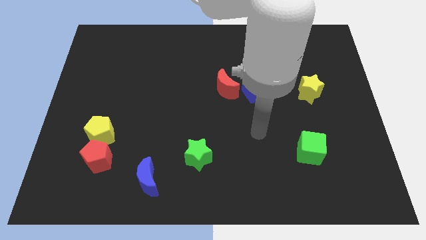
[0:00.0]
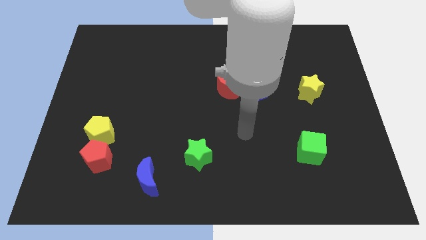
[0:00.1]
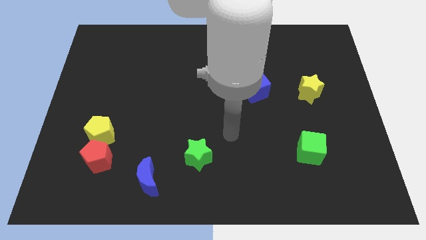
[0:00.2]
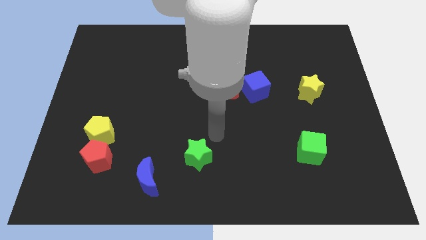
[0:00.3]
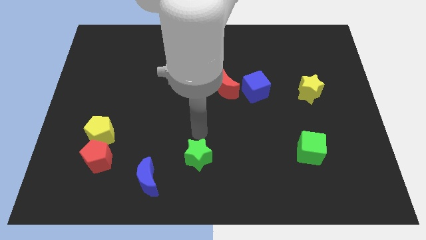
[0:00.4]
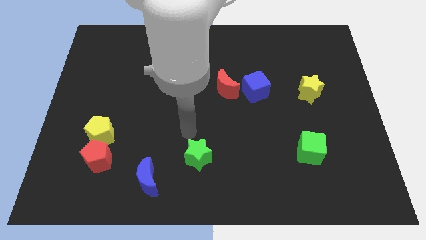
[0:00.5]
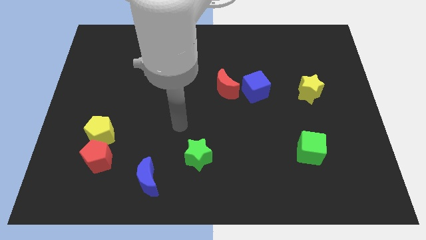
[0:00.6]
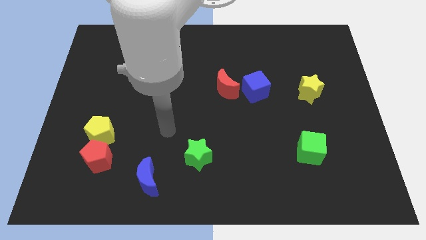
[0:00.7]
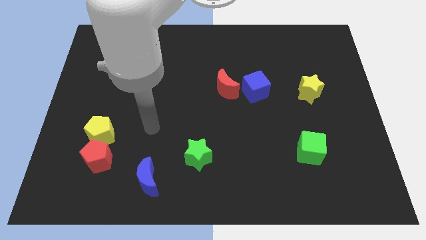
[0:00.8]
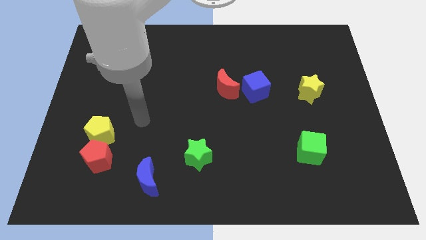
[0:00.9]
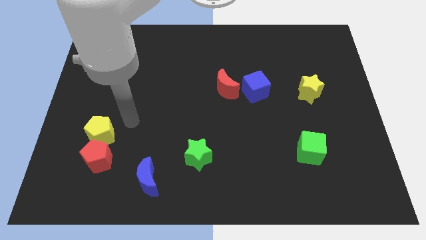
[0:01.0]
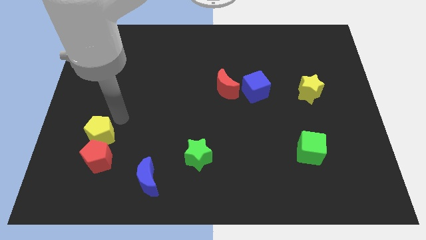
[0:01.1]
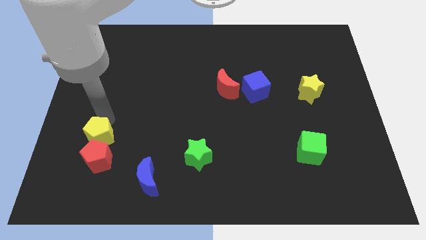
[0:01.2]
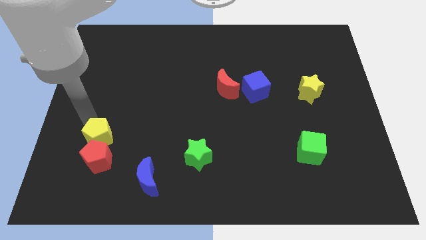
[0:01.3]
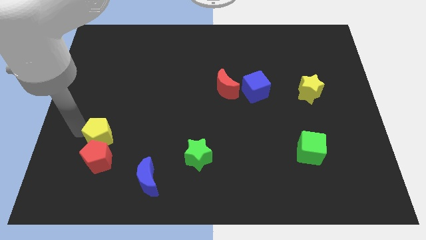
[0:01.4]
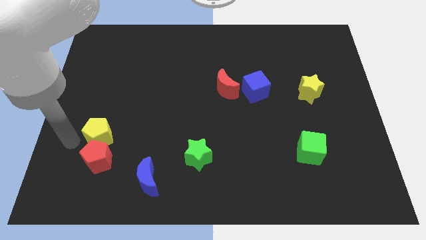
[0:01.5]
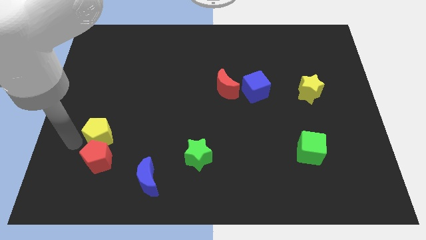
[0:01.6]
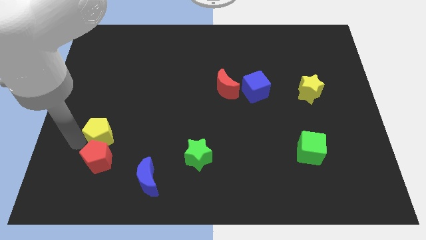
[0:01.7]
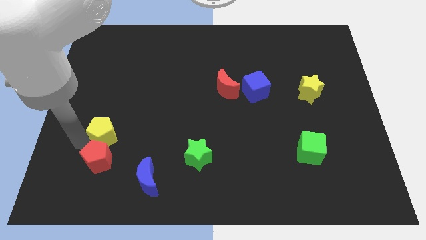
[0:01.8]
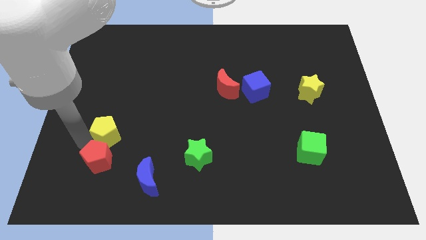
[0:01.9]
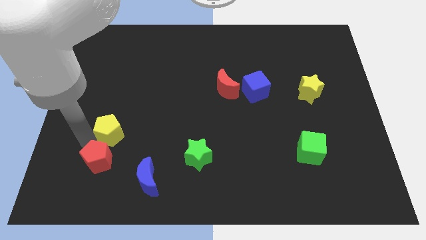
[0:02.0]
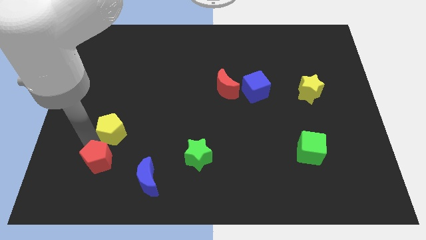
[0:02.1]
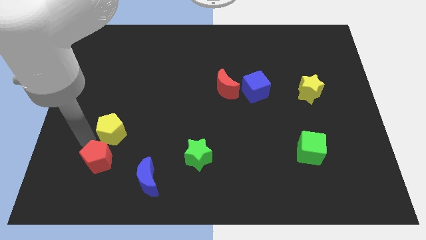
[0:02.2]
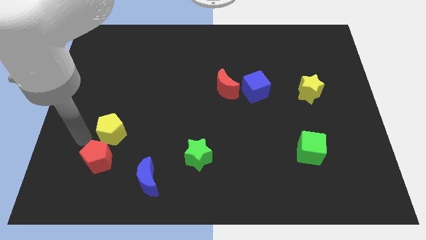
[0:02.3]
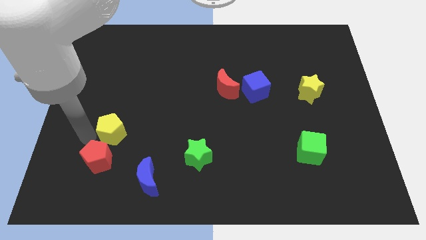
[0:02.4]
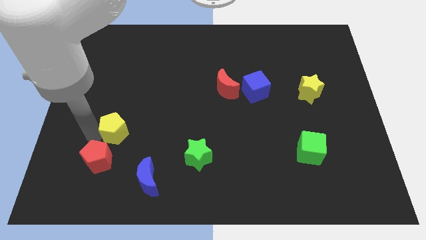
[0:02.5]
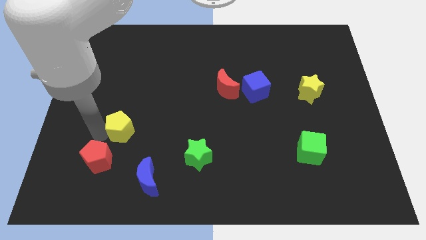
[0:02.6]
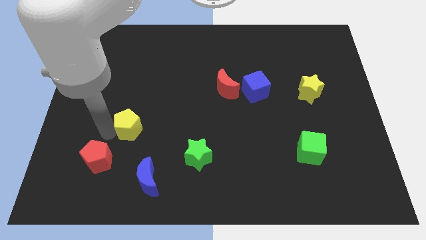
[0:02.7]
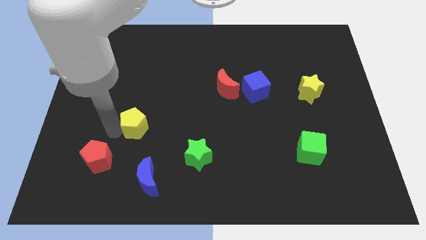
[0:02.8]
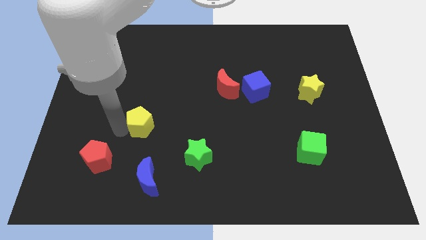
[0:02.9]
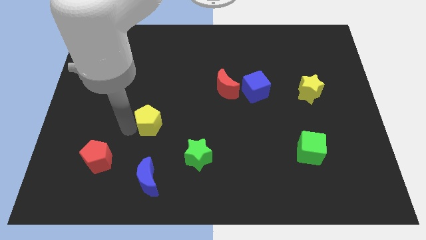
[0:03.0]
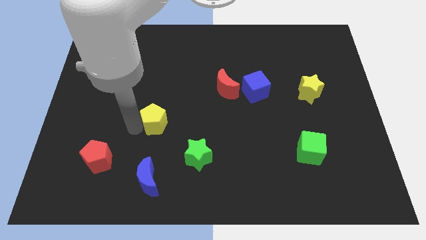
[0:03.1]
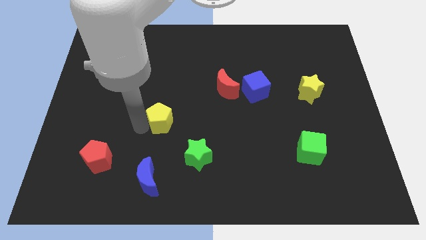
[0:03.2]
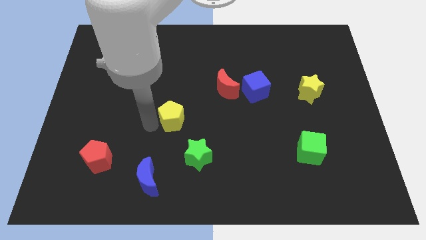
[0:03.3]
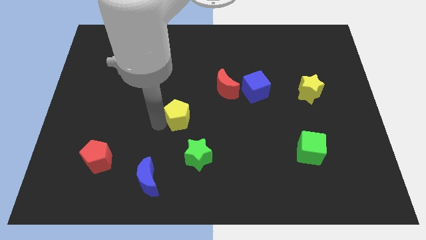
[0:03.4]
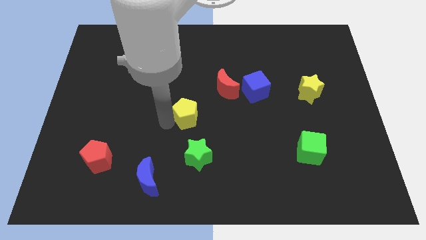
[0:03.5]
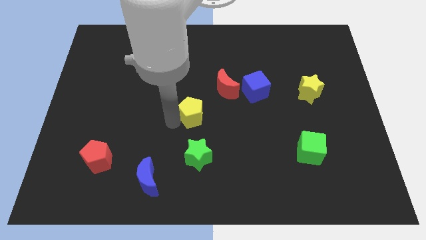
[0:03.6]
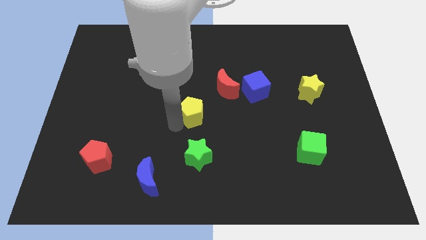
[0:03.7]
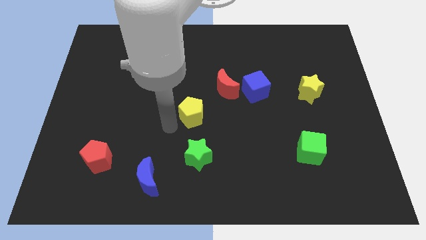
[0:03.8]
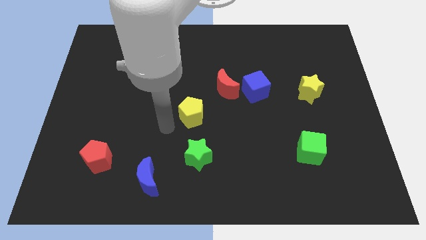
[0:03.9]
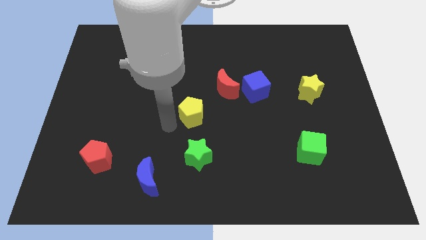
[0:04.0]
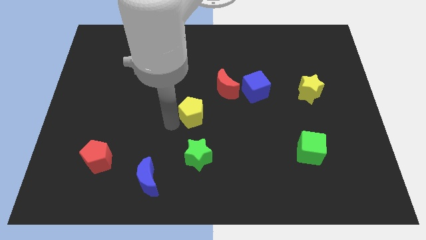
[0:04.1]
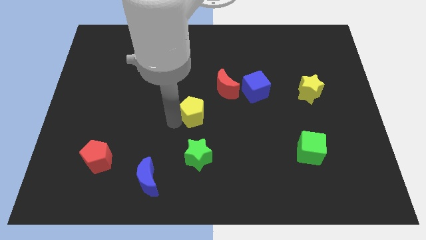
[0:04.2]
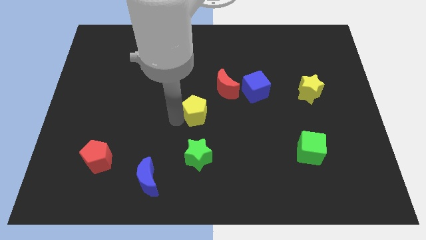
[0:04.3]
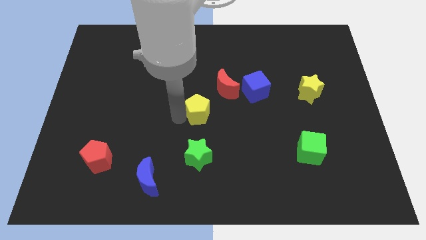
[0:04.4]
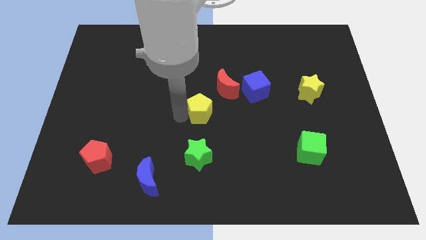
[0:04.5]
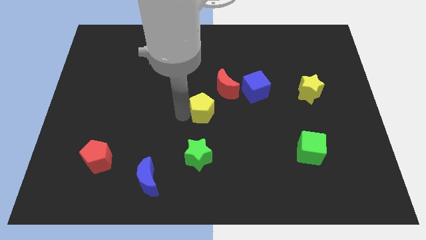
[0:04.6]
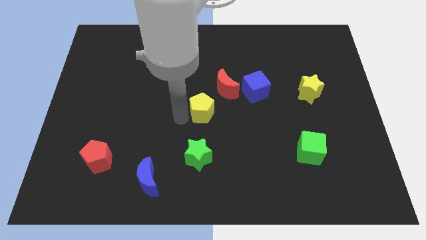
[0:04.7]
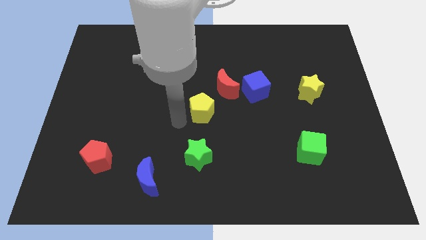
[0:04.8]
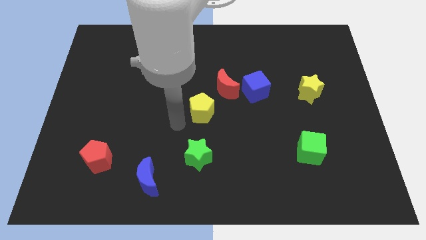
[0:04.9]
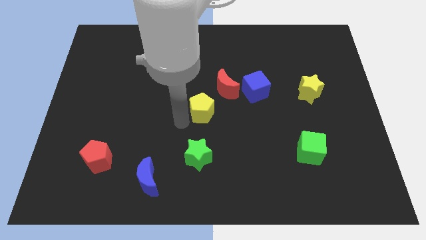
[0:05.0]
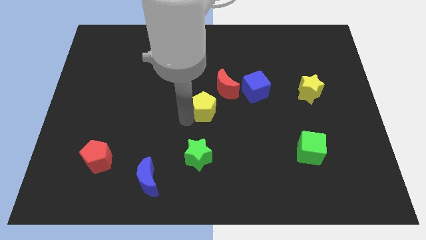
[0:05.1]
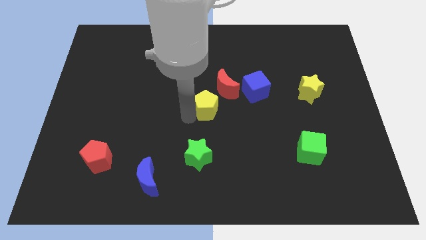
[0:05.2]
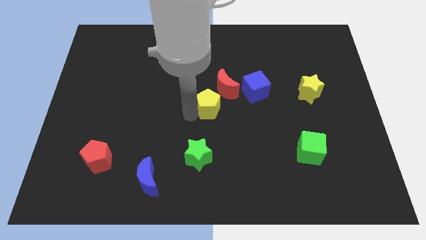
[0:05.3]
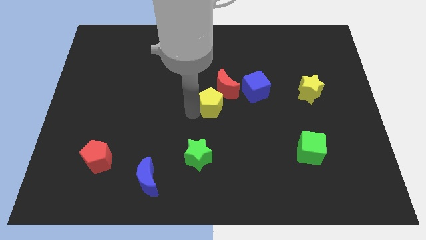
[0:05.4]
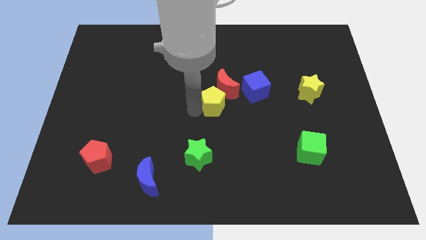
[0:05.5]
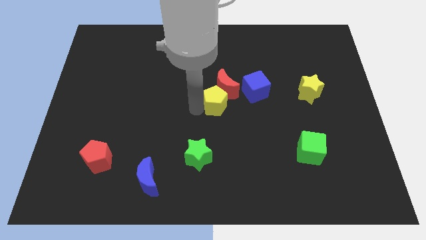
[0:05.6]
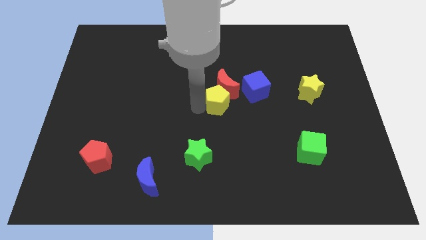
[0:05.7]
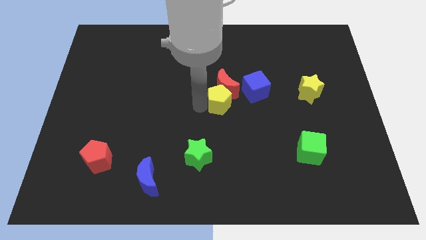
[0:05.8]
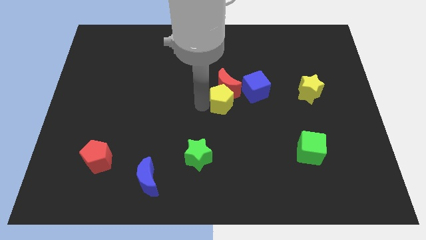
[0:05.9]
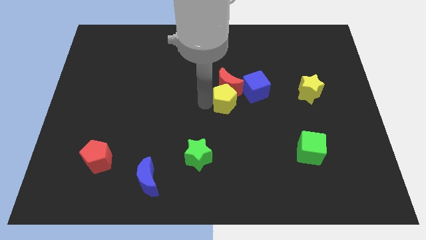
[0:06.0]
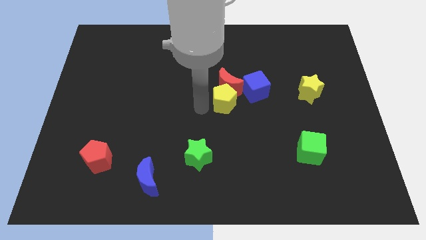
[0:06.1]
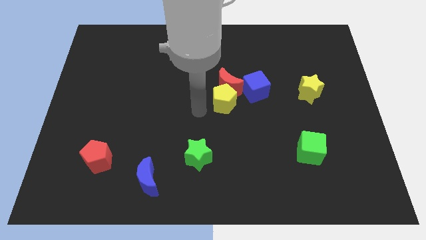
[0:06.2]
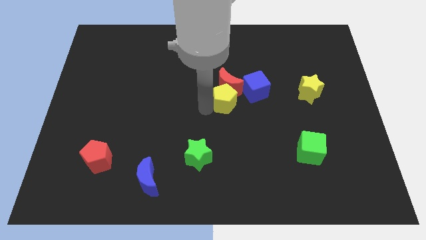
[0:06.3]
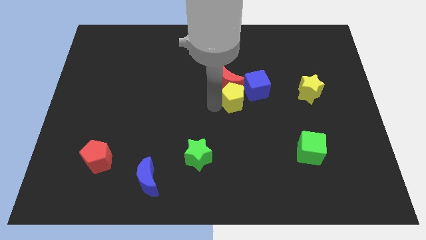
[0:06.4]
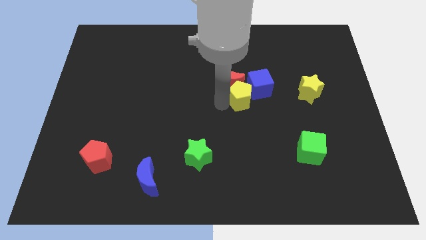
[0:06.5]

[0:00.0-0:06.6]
slide the yellow pentagon next to the blue cube

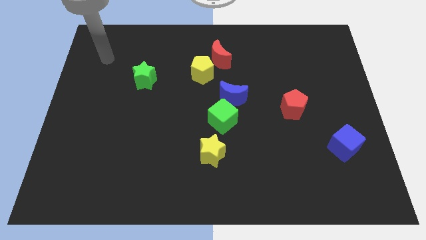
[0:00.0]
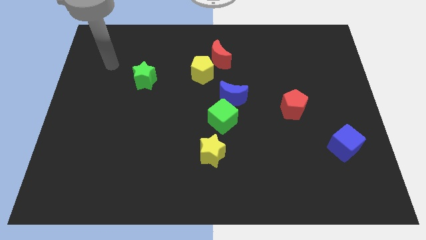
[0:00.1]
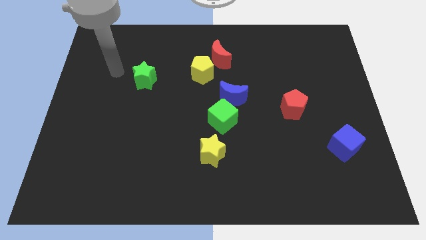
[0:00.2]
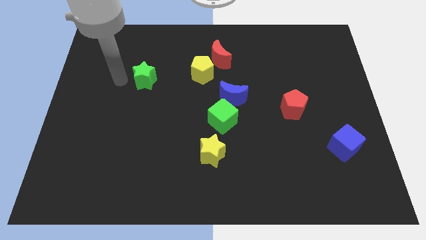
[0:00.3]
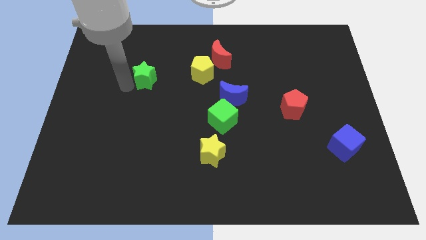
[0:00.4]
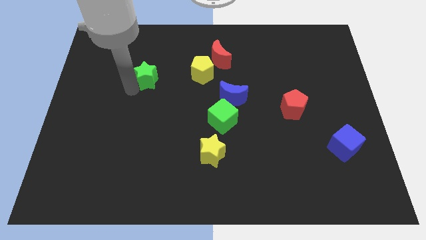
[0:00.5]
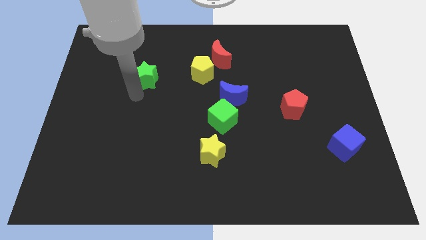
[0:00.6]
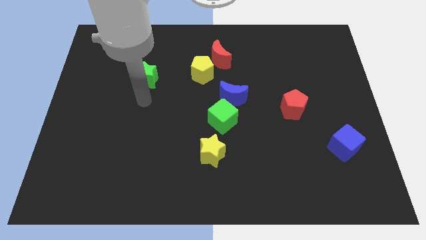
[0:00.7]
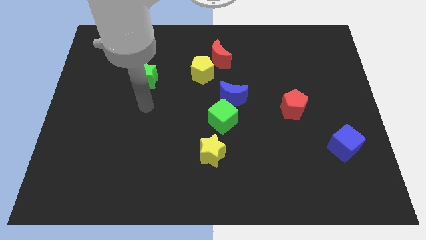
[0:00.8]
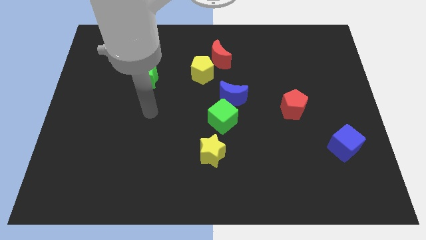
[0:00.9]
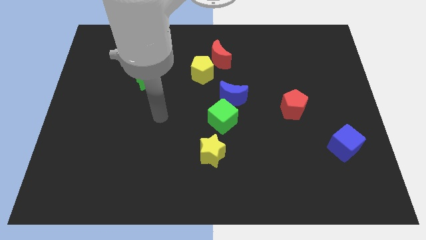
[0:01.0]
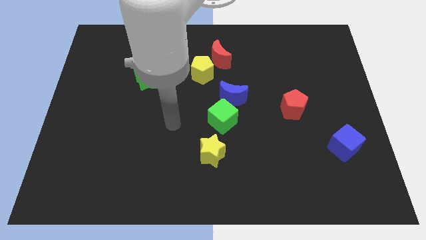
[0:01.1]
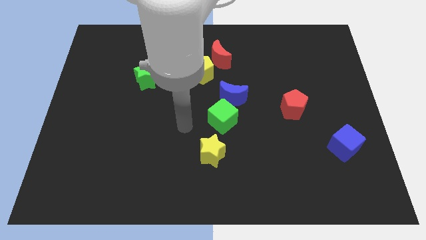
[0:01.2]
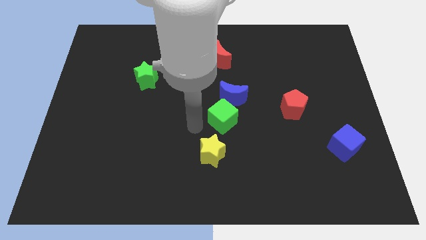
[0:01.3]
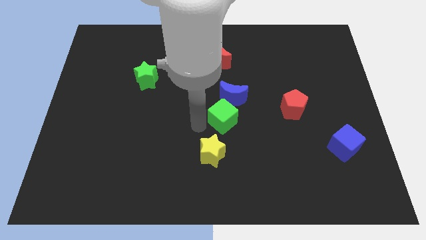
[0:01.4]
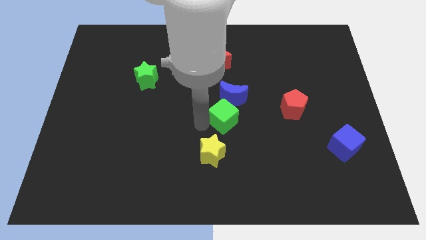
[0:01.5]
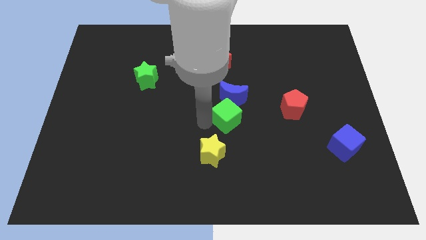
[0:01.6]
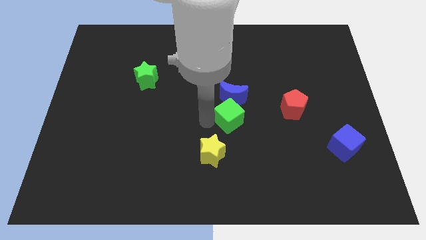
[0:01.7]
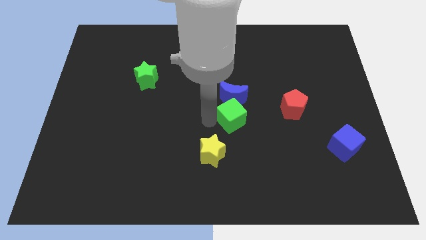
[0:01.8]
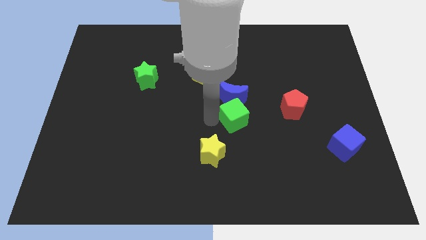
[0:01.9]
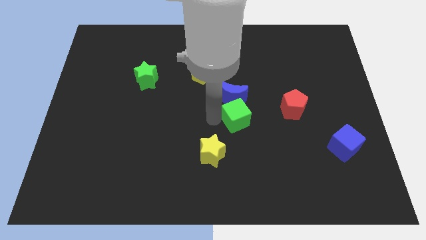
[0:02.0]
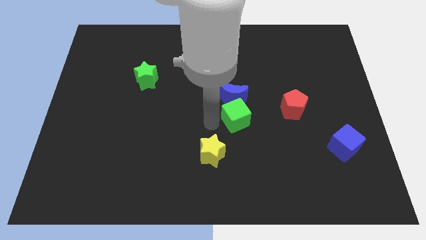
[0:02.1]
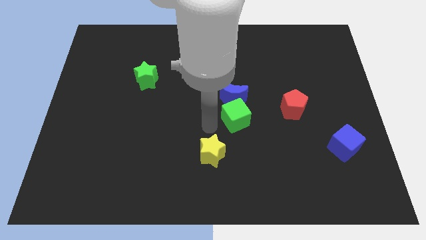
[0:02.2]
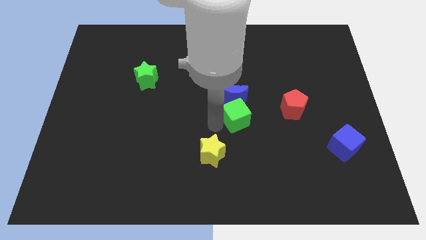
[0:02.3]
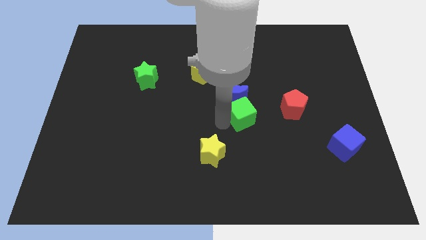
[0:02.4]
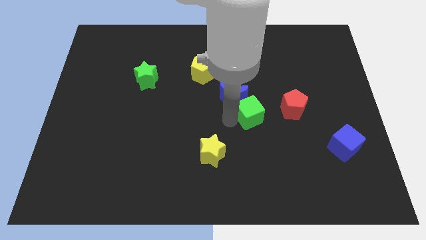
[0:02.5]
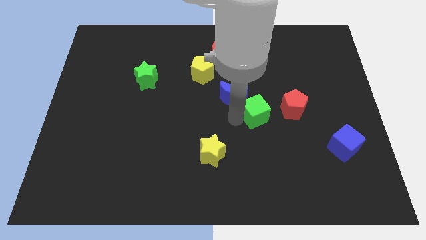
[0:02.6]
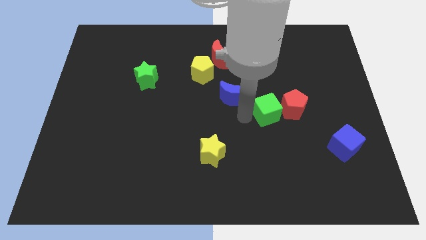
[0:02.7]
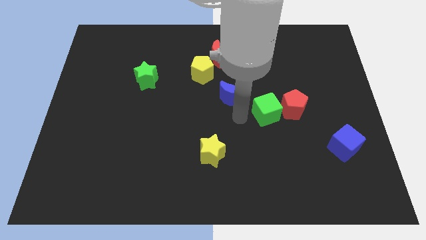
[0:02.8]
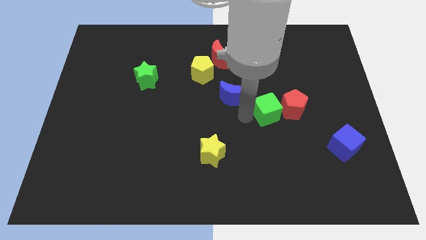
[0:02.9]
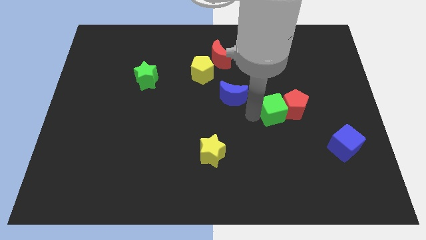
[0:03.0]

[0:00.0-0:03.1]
push the green cube close to the red pentagon
